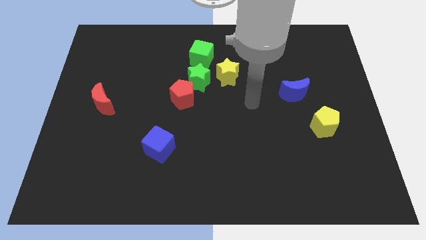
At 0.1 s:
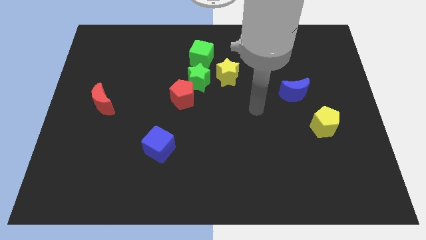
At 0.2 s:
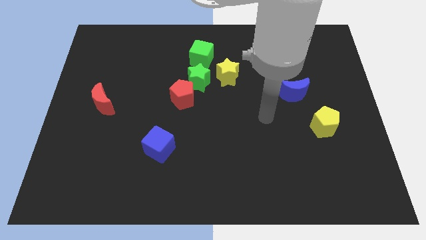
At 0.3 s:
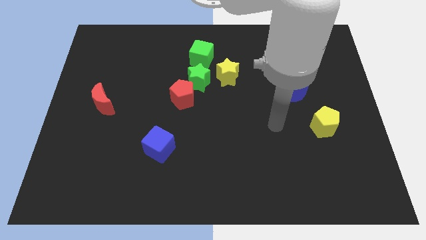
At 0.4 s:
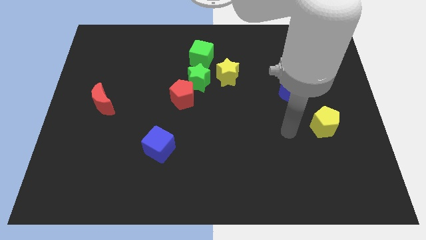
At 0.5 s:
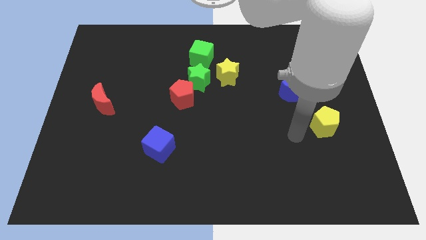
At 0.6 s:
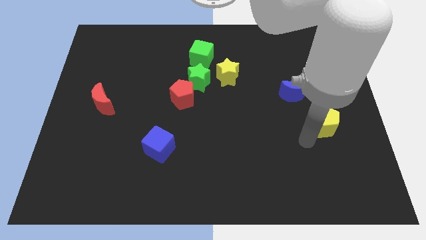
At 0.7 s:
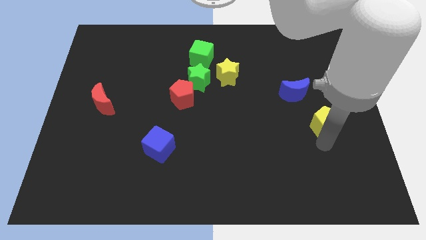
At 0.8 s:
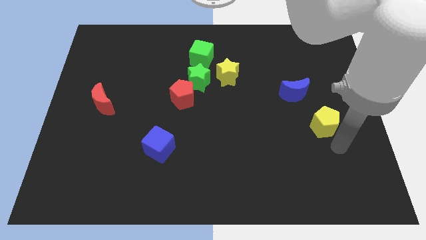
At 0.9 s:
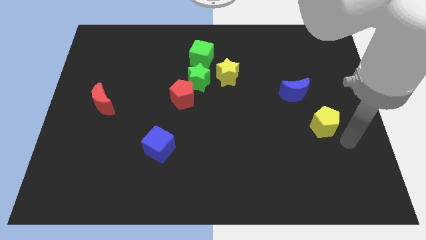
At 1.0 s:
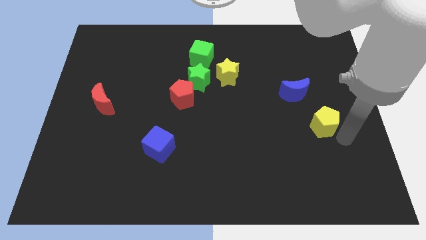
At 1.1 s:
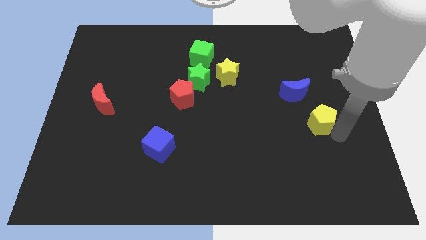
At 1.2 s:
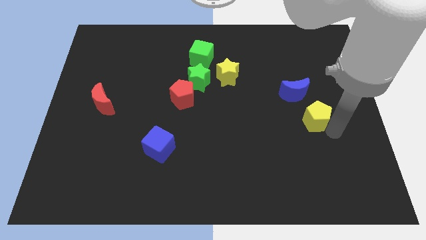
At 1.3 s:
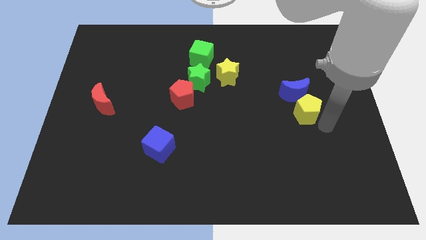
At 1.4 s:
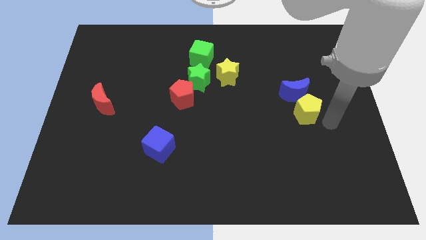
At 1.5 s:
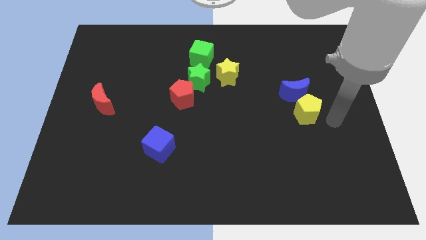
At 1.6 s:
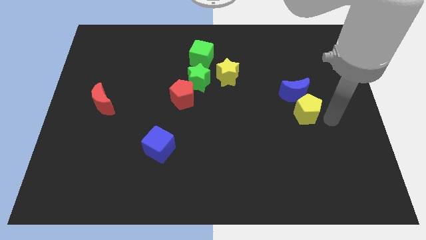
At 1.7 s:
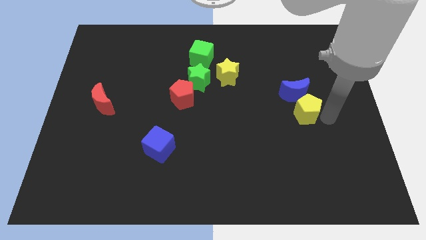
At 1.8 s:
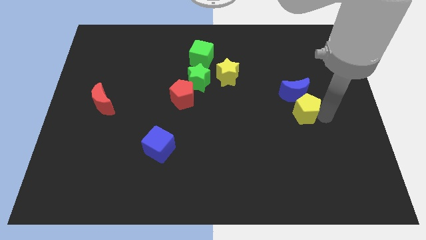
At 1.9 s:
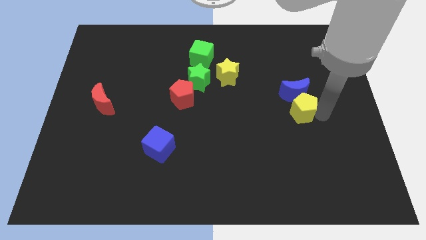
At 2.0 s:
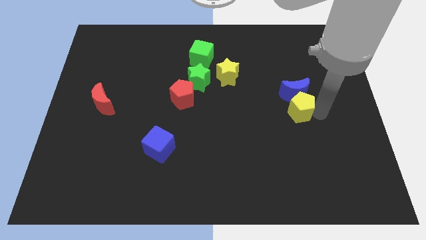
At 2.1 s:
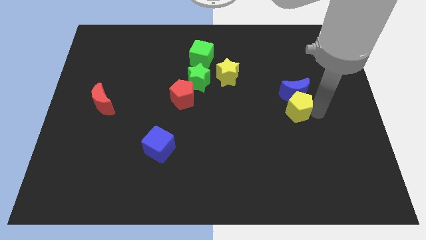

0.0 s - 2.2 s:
slide the yellow pentagon a little bit upwards and to the left

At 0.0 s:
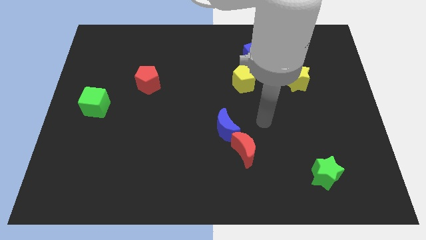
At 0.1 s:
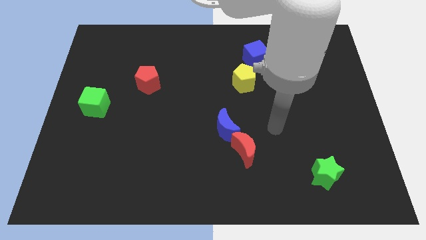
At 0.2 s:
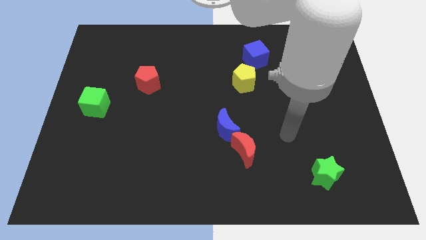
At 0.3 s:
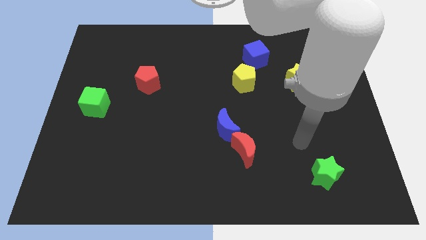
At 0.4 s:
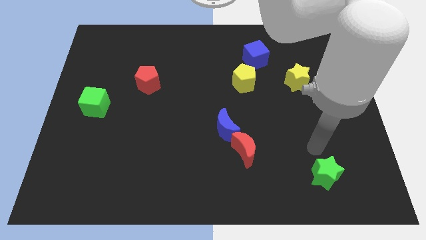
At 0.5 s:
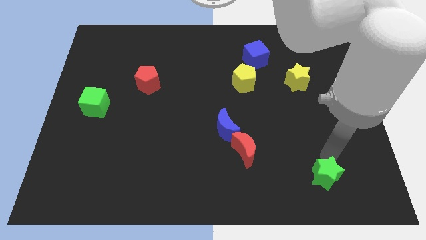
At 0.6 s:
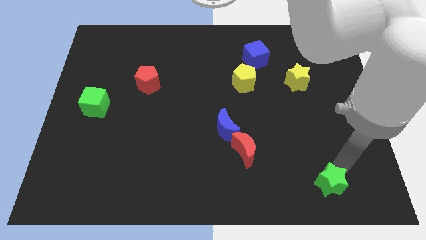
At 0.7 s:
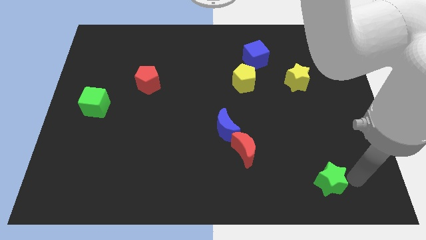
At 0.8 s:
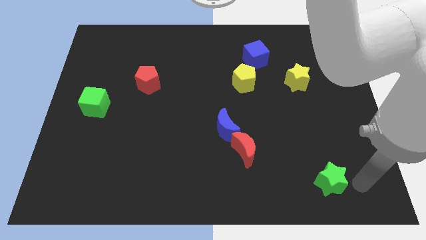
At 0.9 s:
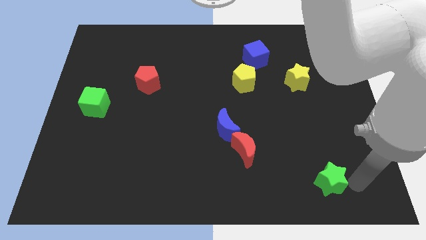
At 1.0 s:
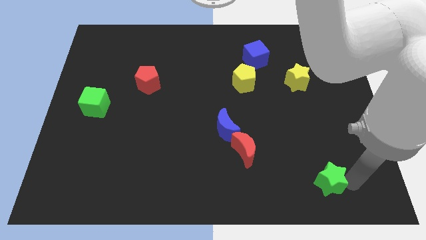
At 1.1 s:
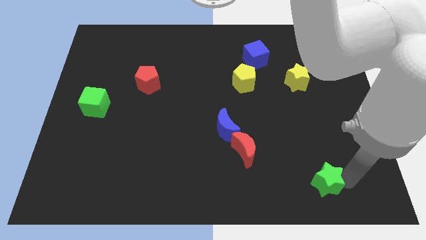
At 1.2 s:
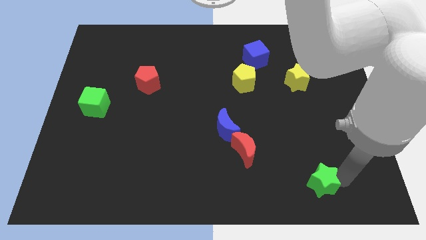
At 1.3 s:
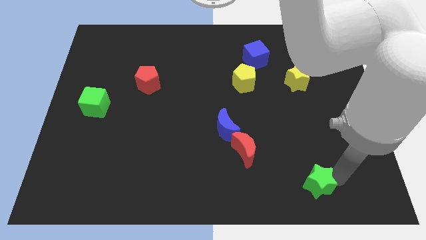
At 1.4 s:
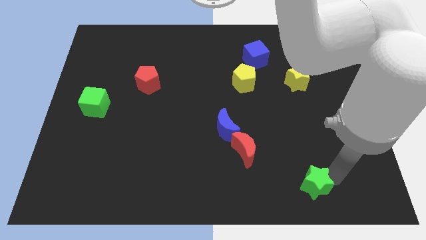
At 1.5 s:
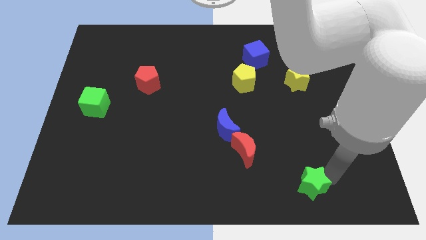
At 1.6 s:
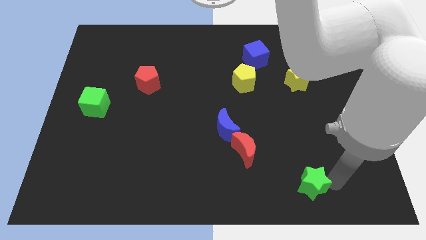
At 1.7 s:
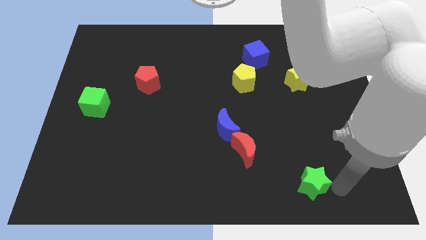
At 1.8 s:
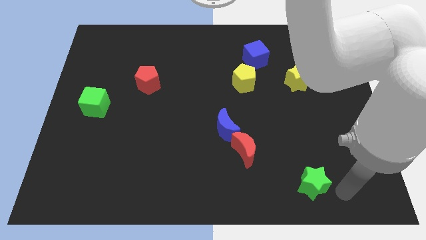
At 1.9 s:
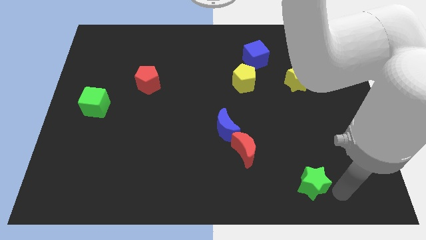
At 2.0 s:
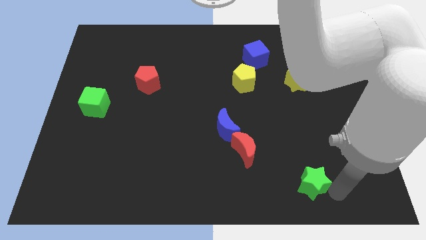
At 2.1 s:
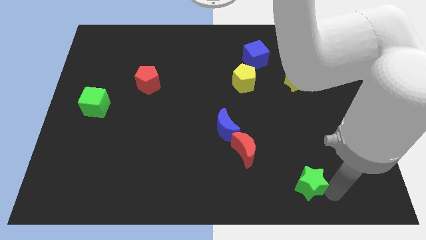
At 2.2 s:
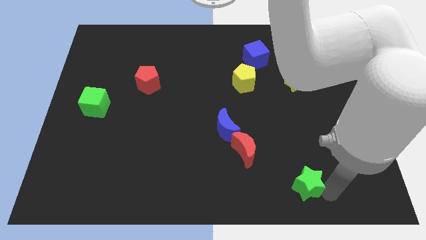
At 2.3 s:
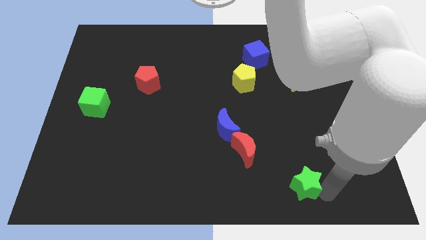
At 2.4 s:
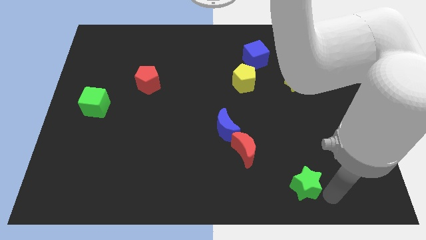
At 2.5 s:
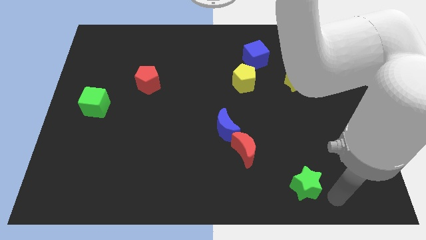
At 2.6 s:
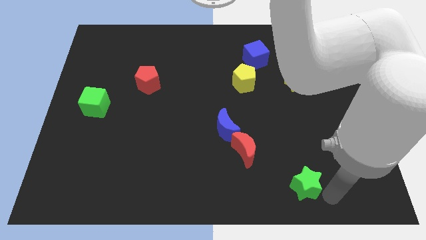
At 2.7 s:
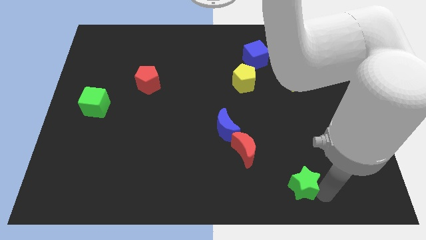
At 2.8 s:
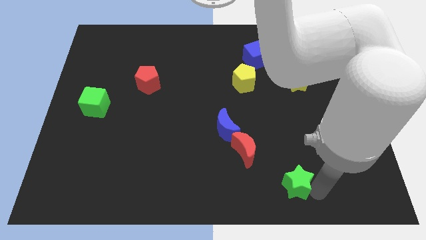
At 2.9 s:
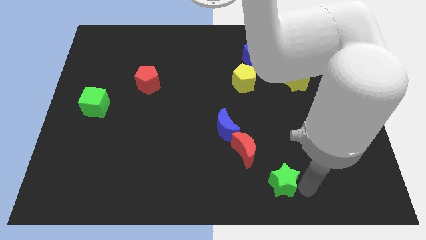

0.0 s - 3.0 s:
push the green star to the left slightly

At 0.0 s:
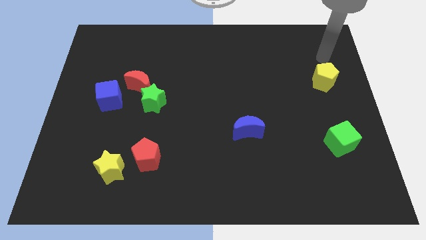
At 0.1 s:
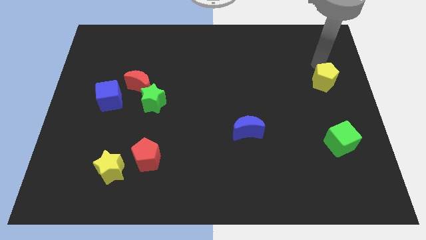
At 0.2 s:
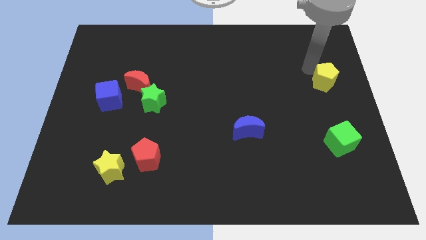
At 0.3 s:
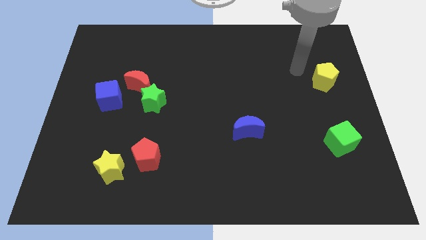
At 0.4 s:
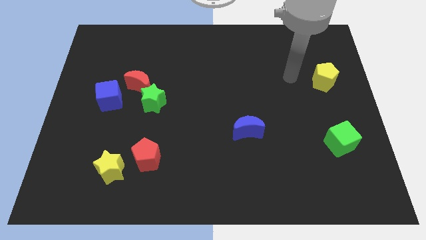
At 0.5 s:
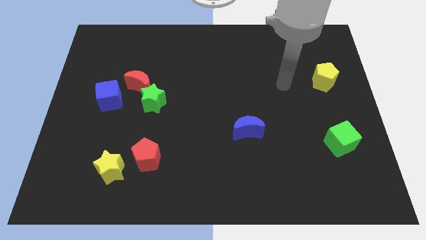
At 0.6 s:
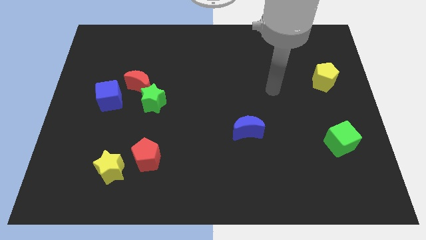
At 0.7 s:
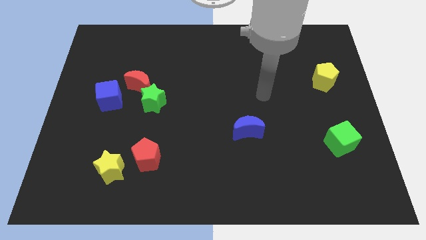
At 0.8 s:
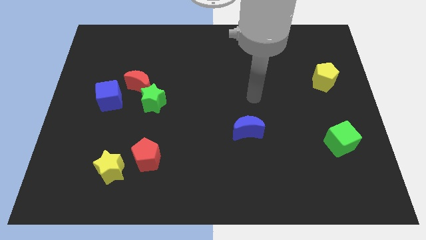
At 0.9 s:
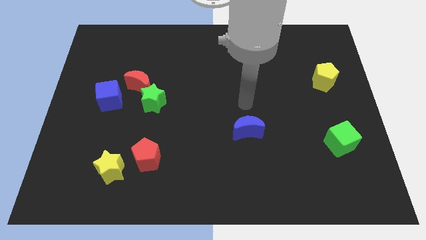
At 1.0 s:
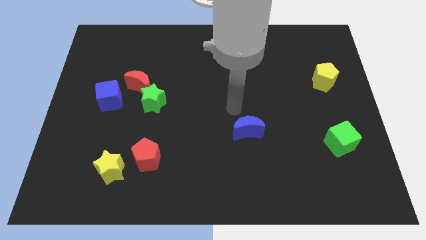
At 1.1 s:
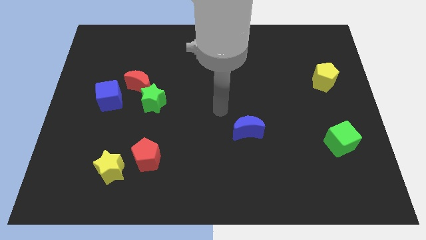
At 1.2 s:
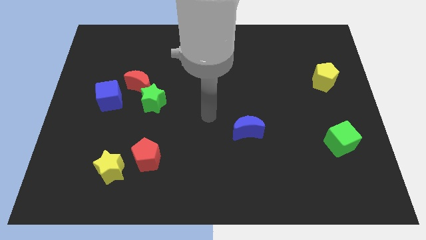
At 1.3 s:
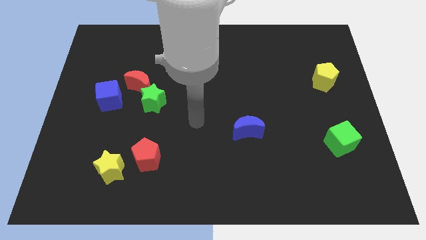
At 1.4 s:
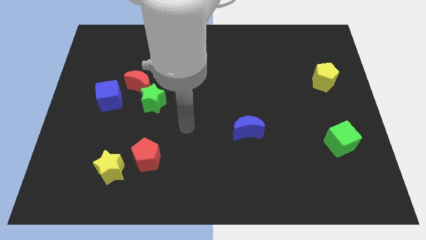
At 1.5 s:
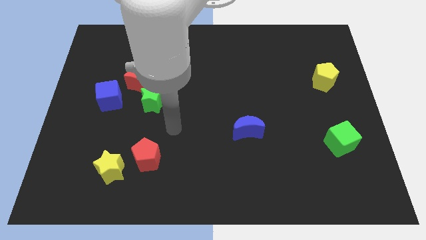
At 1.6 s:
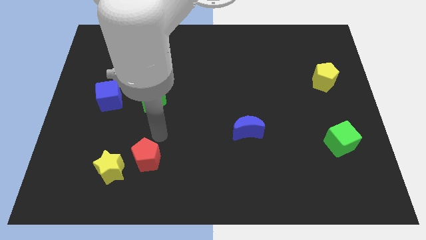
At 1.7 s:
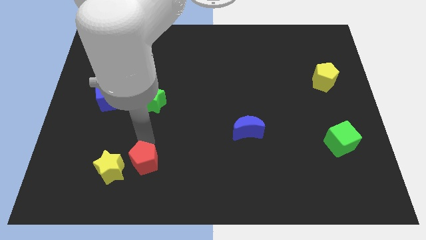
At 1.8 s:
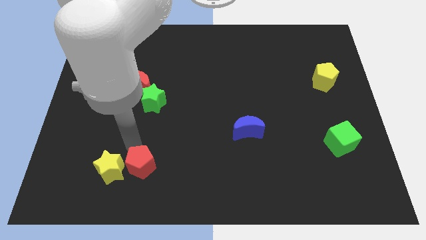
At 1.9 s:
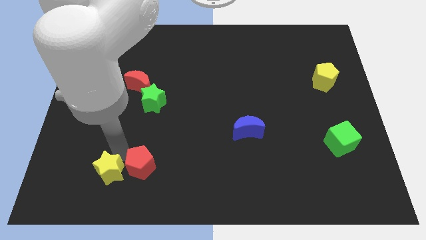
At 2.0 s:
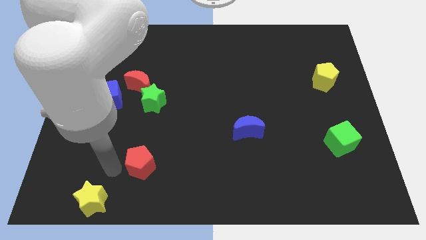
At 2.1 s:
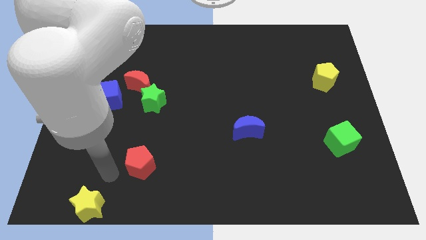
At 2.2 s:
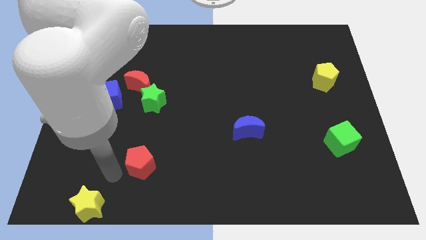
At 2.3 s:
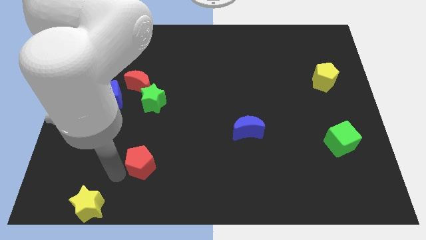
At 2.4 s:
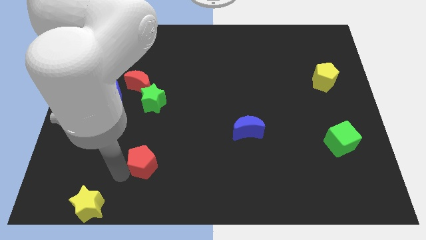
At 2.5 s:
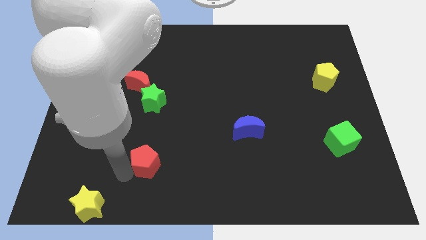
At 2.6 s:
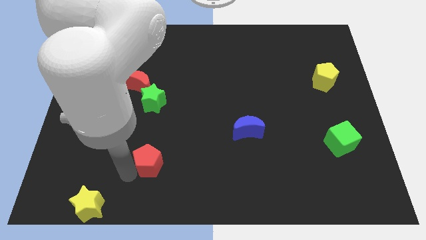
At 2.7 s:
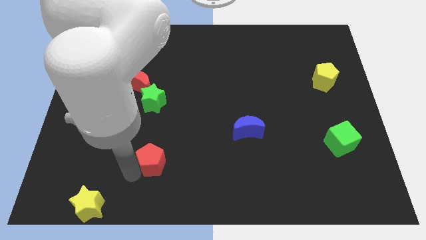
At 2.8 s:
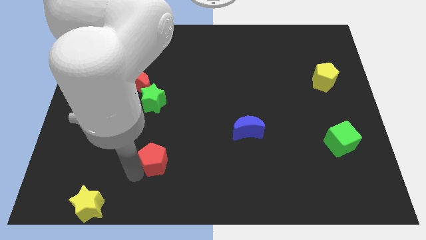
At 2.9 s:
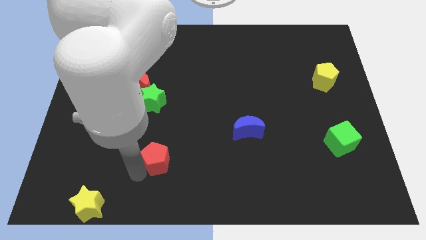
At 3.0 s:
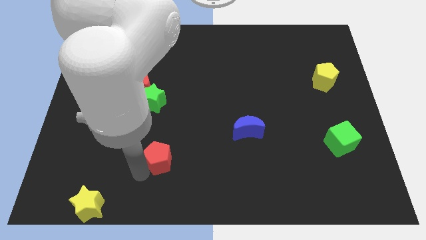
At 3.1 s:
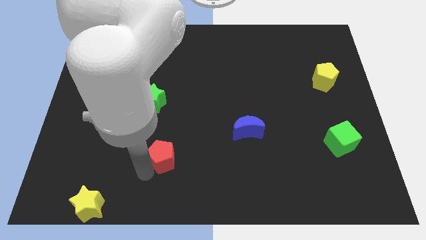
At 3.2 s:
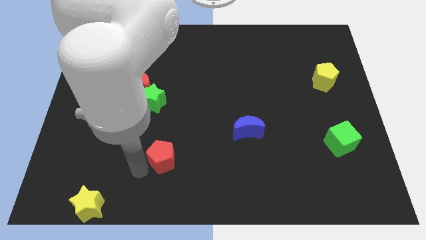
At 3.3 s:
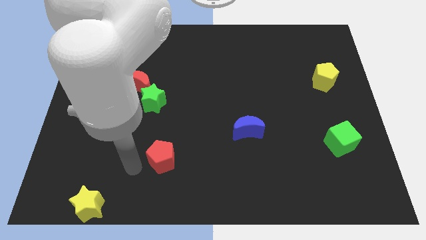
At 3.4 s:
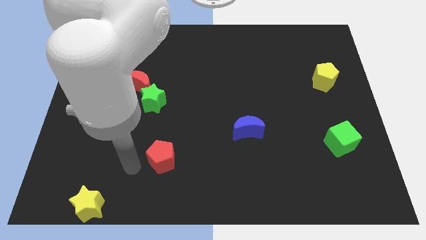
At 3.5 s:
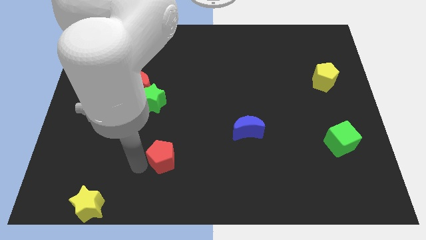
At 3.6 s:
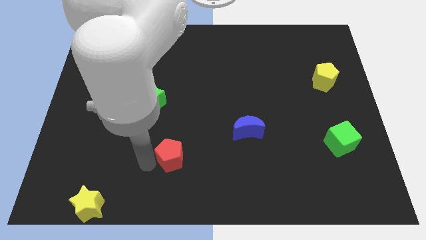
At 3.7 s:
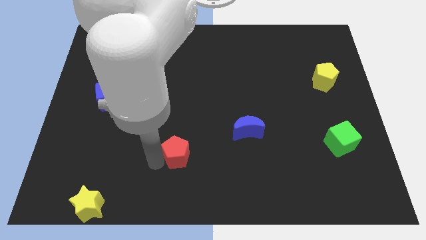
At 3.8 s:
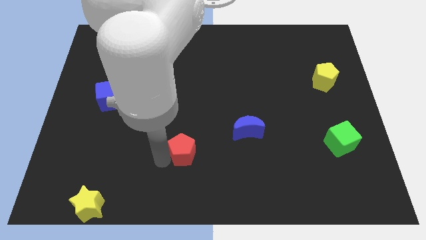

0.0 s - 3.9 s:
slightly move the red pentagon right
